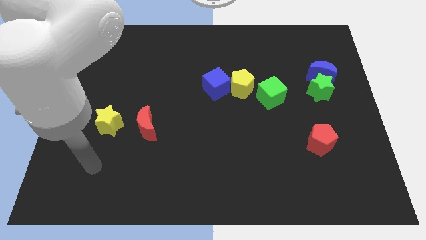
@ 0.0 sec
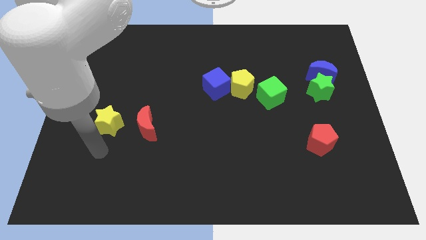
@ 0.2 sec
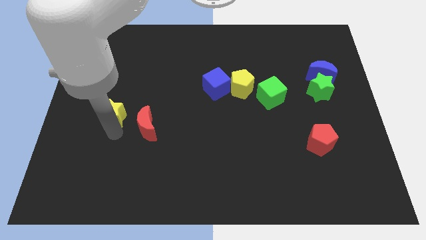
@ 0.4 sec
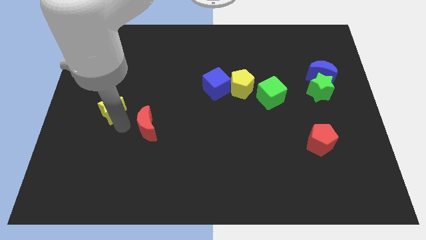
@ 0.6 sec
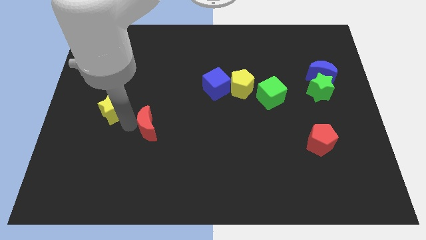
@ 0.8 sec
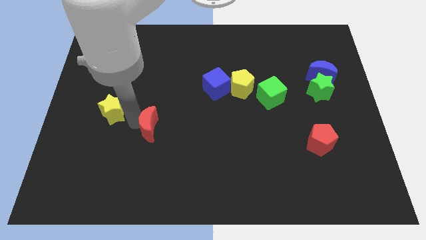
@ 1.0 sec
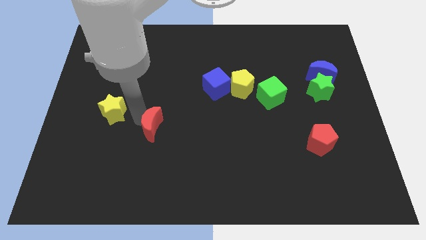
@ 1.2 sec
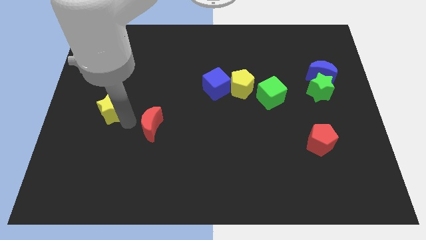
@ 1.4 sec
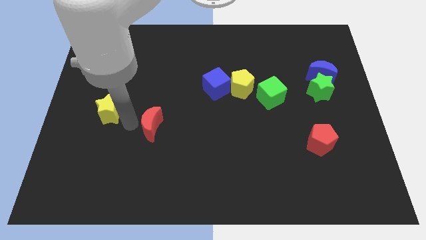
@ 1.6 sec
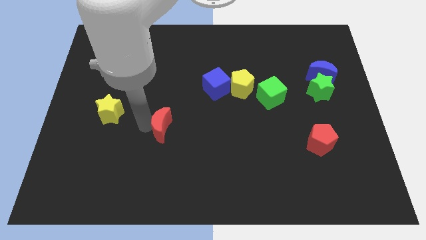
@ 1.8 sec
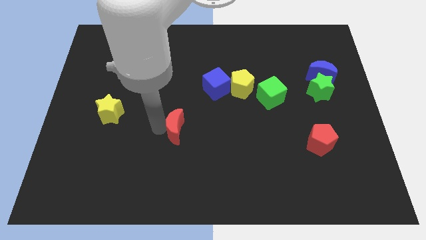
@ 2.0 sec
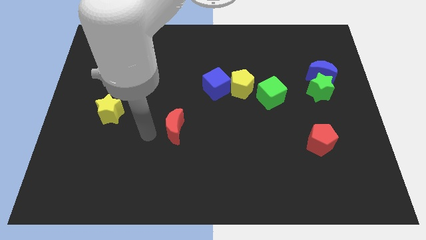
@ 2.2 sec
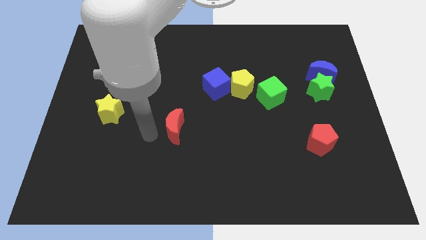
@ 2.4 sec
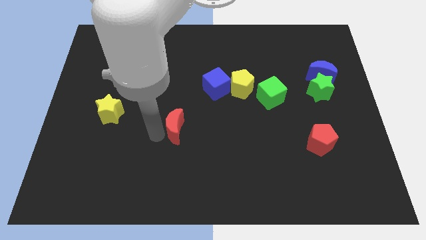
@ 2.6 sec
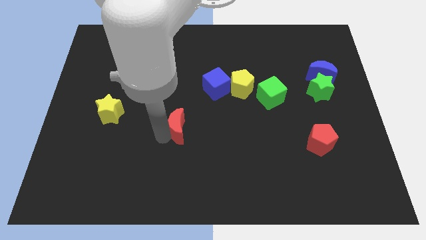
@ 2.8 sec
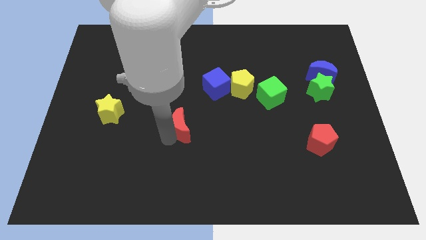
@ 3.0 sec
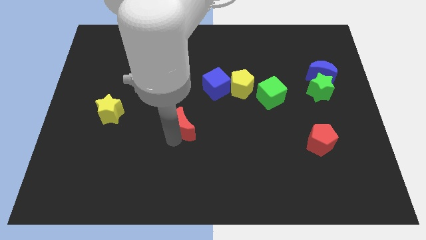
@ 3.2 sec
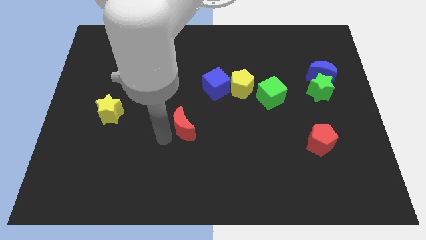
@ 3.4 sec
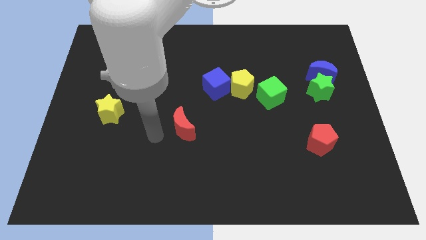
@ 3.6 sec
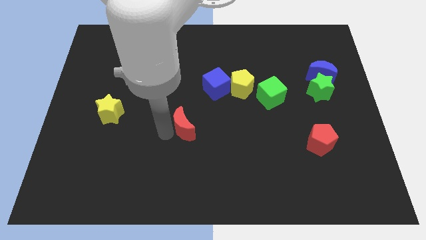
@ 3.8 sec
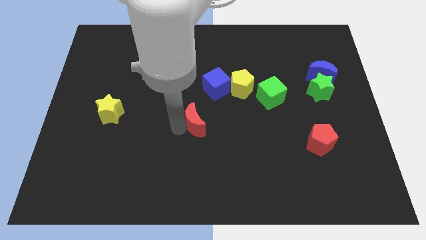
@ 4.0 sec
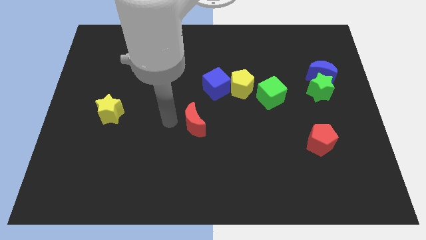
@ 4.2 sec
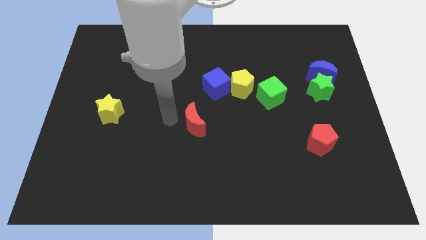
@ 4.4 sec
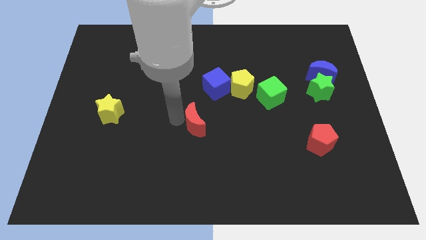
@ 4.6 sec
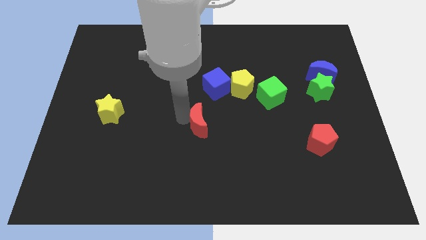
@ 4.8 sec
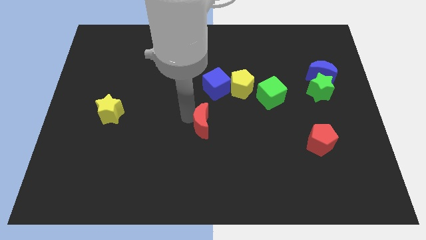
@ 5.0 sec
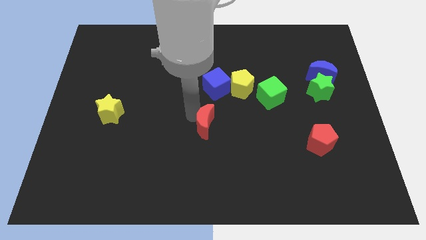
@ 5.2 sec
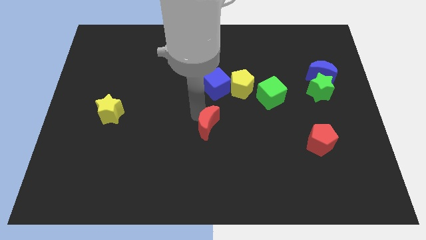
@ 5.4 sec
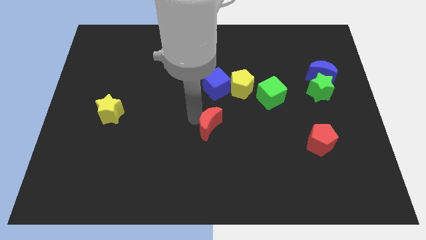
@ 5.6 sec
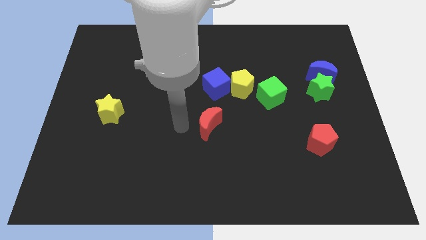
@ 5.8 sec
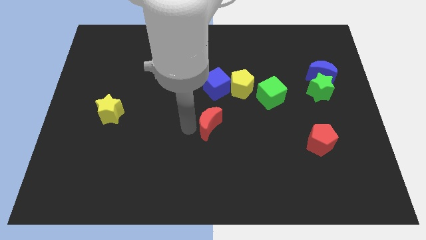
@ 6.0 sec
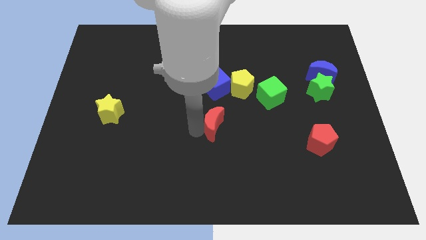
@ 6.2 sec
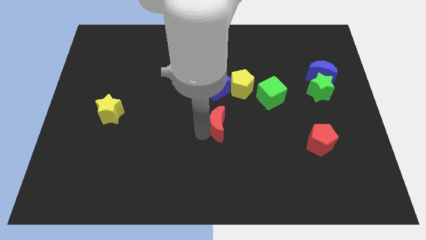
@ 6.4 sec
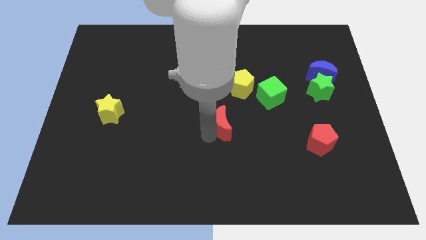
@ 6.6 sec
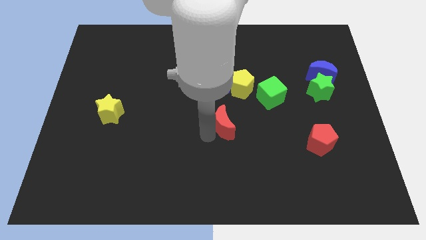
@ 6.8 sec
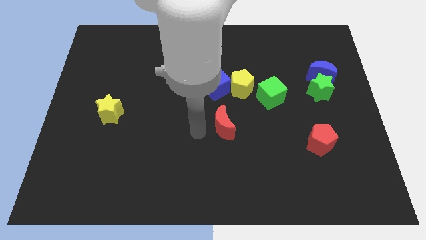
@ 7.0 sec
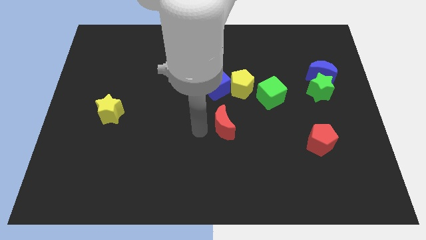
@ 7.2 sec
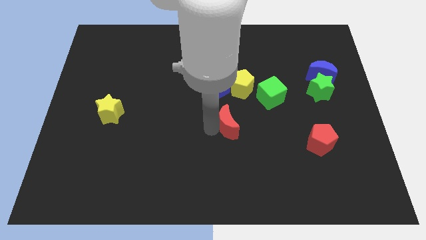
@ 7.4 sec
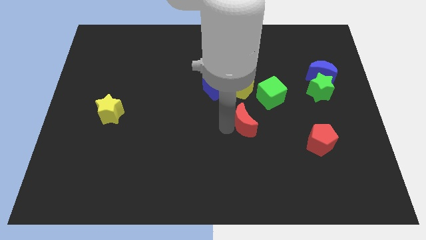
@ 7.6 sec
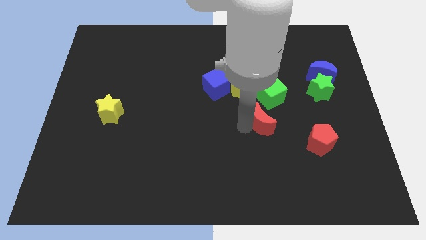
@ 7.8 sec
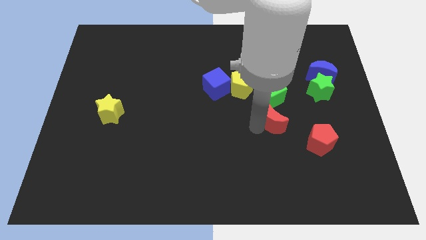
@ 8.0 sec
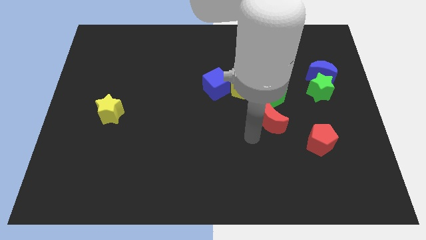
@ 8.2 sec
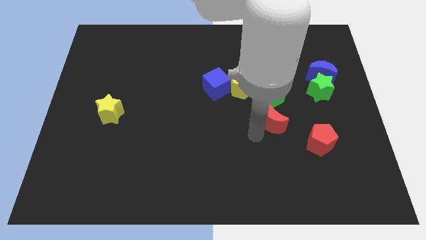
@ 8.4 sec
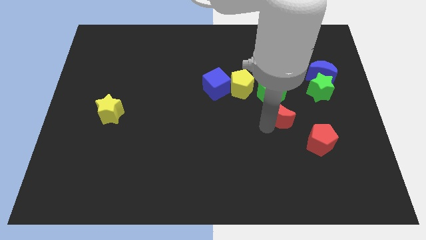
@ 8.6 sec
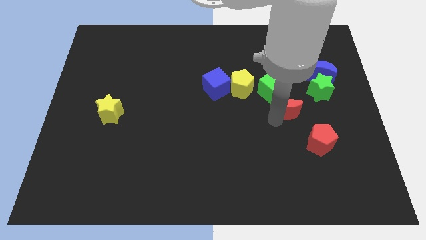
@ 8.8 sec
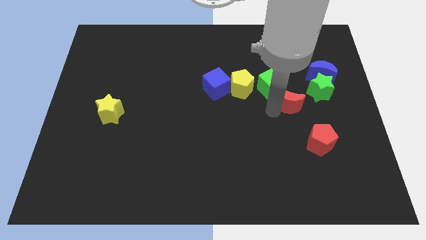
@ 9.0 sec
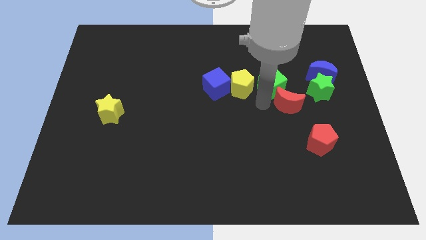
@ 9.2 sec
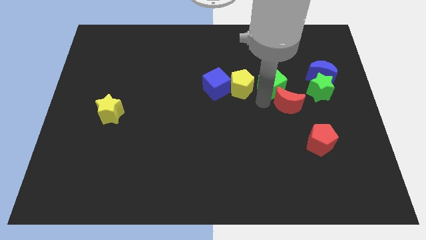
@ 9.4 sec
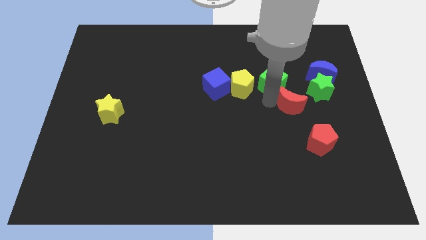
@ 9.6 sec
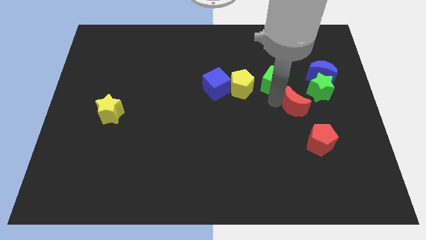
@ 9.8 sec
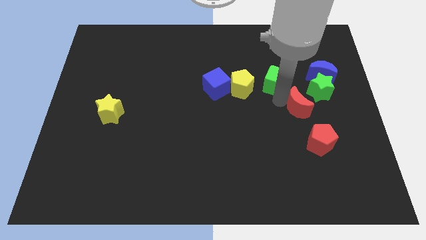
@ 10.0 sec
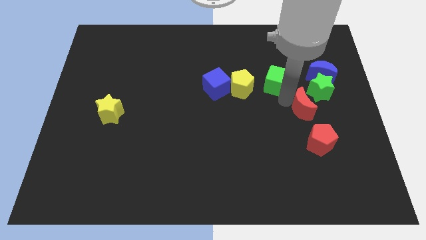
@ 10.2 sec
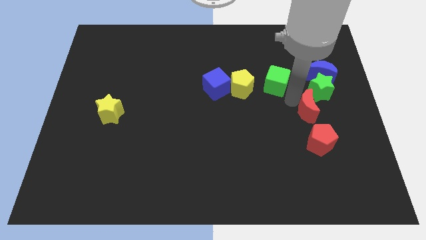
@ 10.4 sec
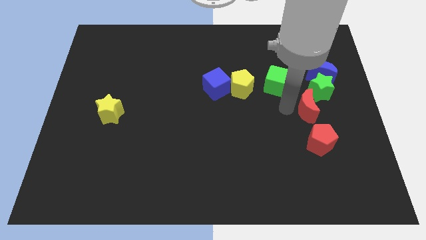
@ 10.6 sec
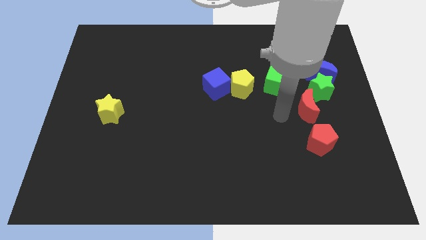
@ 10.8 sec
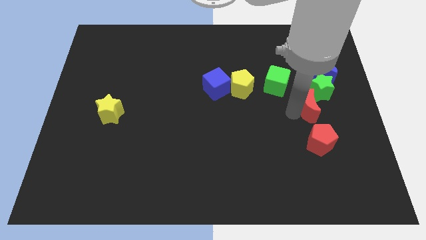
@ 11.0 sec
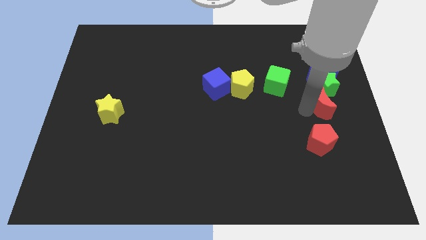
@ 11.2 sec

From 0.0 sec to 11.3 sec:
put the red moon to the right side of the board
